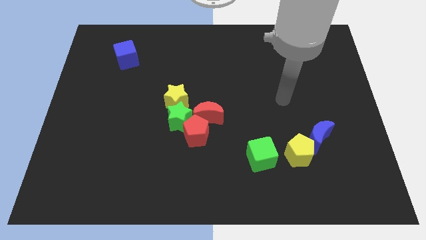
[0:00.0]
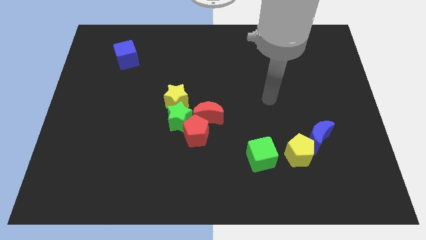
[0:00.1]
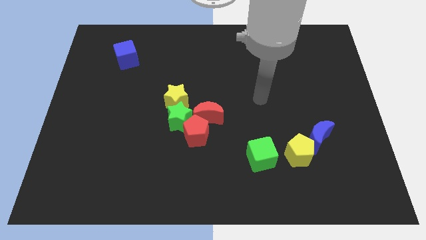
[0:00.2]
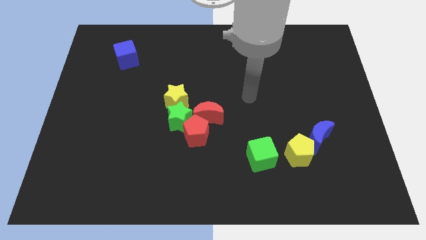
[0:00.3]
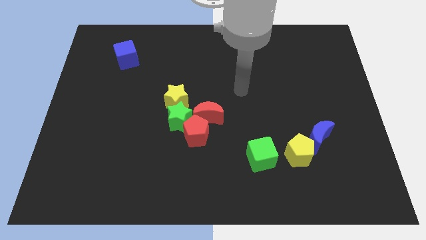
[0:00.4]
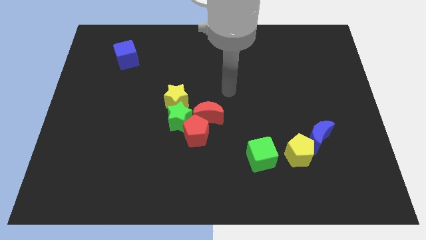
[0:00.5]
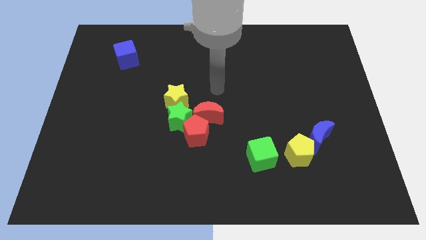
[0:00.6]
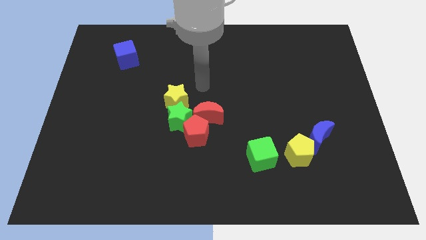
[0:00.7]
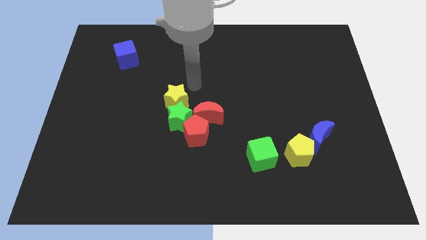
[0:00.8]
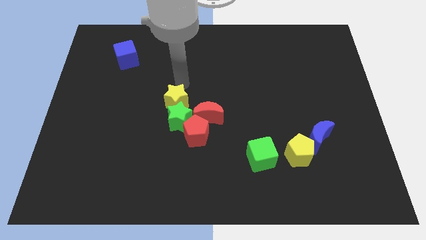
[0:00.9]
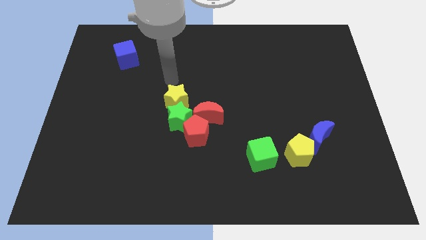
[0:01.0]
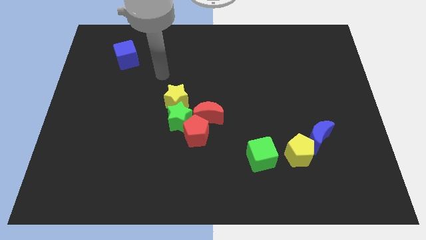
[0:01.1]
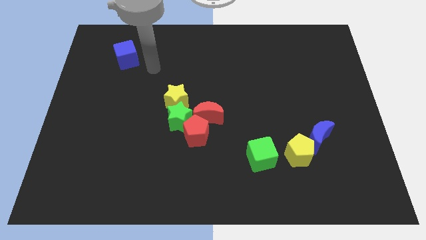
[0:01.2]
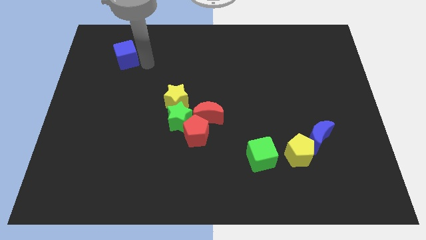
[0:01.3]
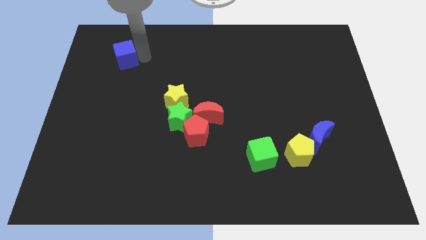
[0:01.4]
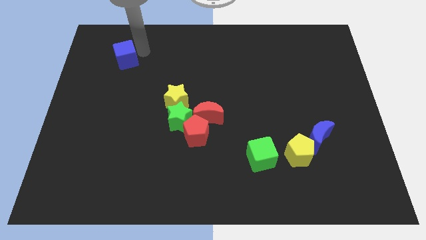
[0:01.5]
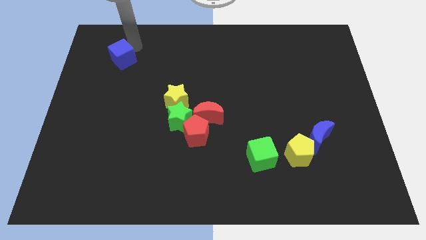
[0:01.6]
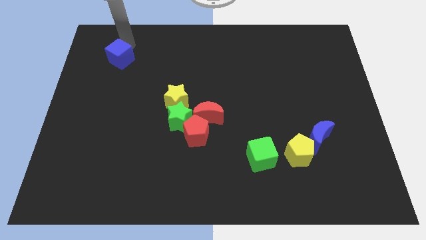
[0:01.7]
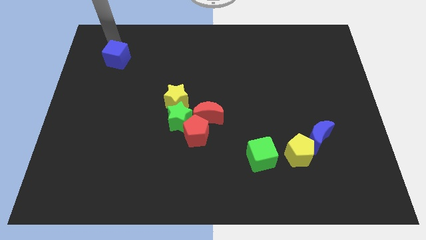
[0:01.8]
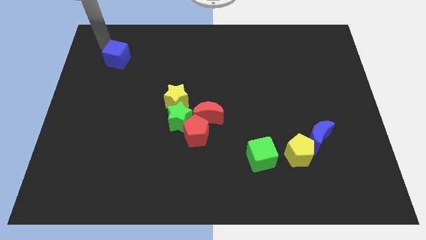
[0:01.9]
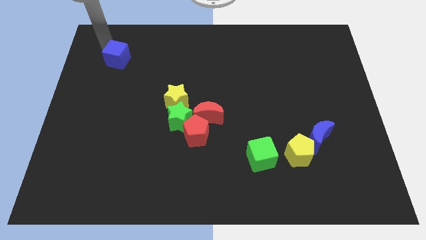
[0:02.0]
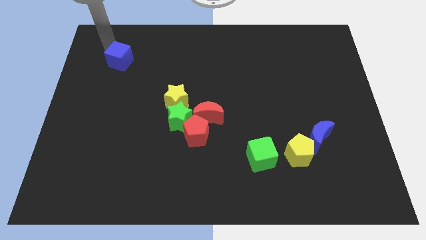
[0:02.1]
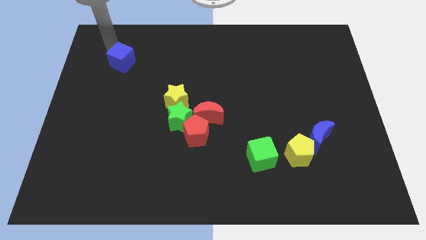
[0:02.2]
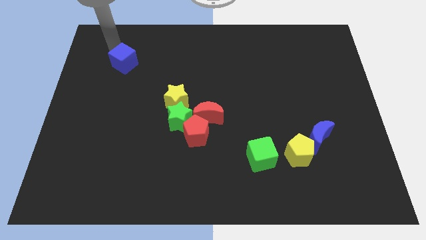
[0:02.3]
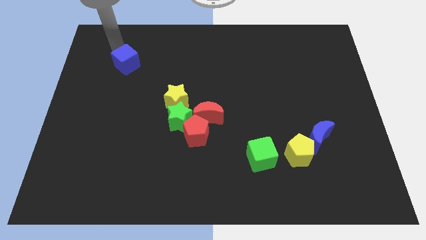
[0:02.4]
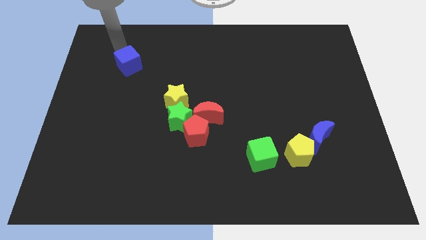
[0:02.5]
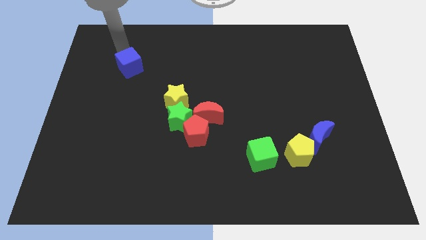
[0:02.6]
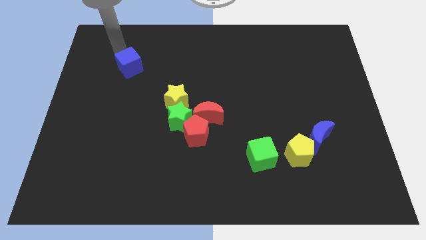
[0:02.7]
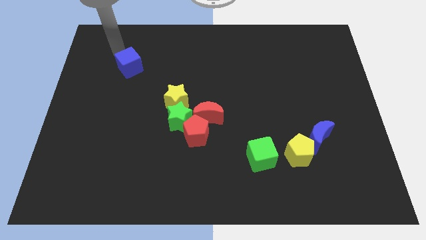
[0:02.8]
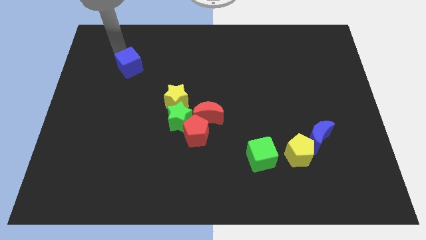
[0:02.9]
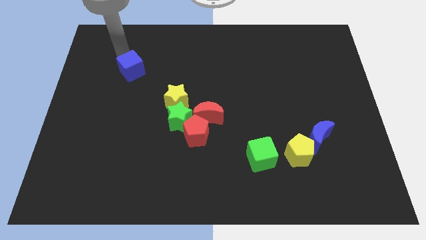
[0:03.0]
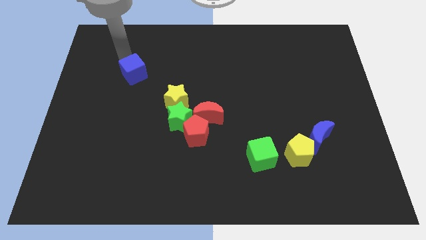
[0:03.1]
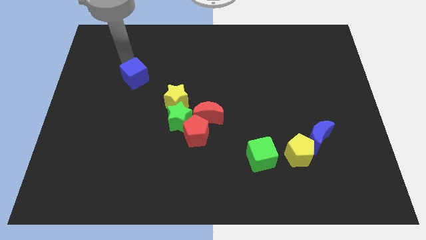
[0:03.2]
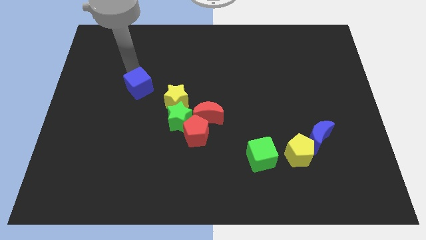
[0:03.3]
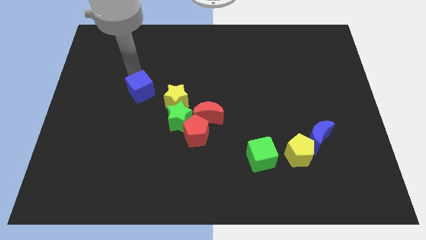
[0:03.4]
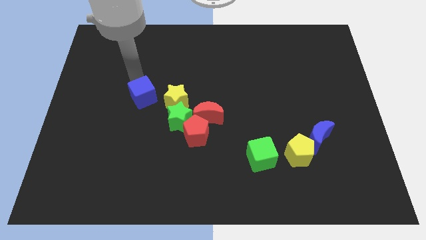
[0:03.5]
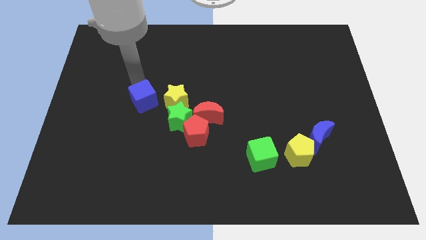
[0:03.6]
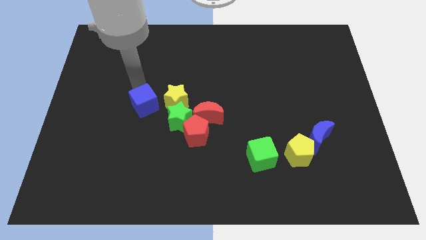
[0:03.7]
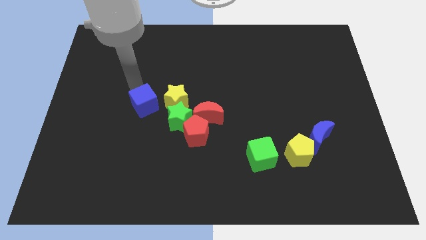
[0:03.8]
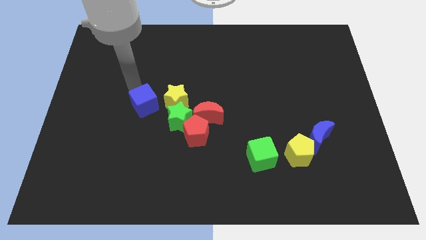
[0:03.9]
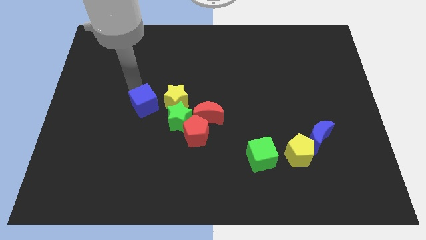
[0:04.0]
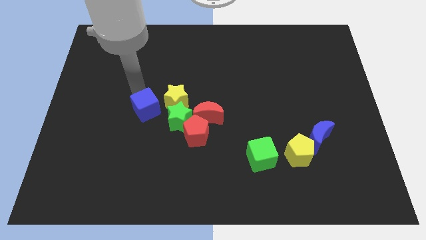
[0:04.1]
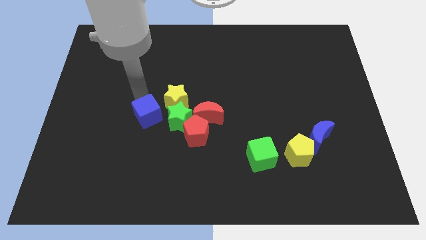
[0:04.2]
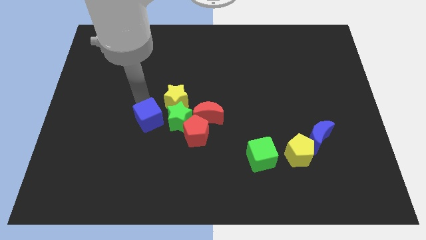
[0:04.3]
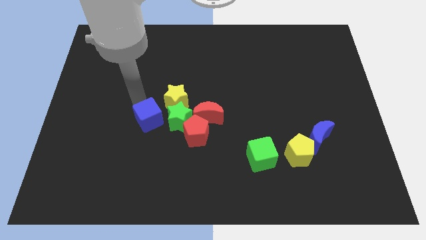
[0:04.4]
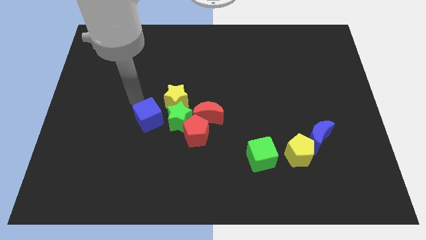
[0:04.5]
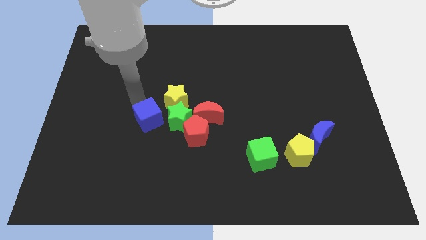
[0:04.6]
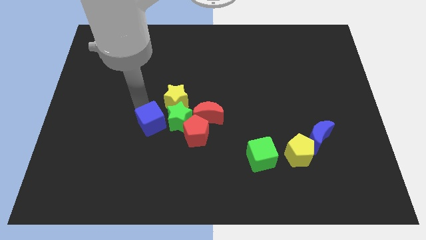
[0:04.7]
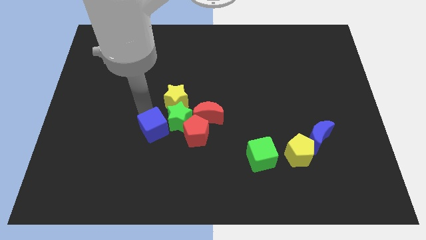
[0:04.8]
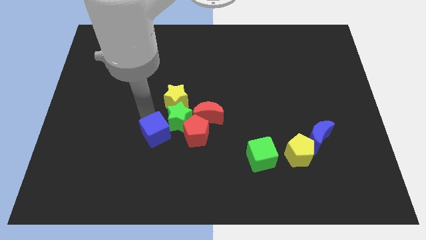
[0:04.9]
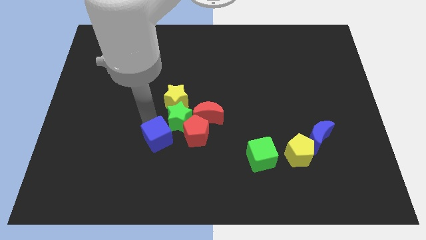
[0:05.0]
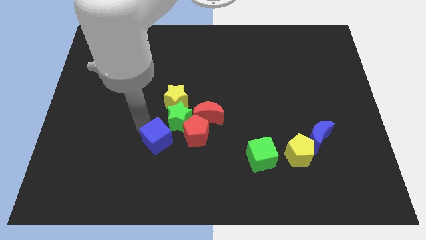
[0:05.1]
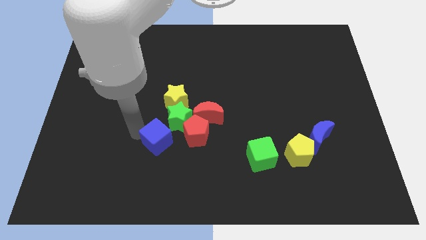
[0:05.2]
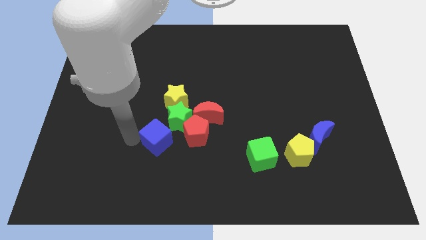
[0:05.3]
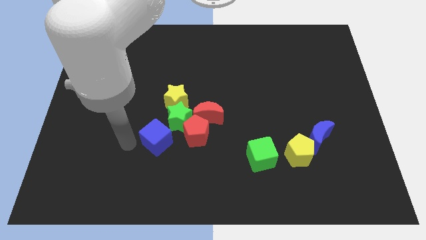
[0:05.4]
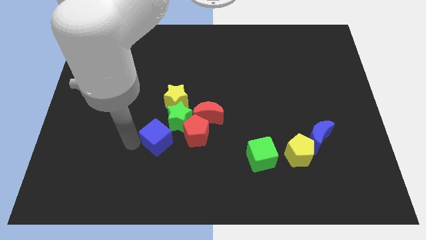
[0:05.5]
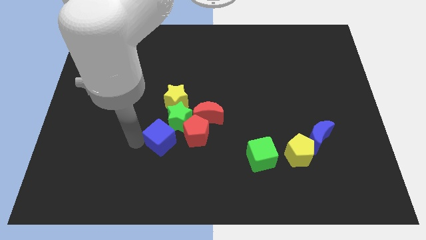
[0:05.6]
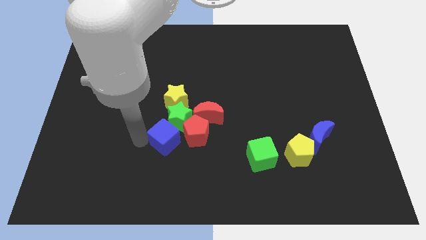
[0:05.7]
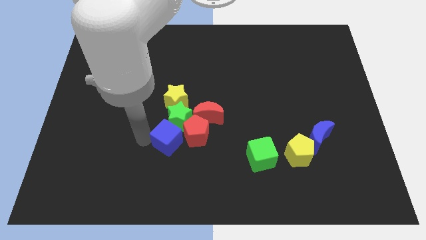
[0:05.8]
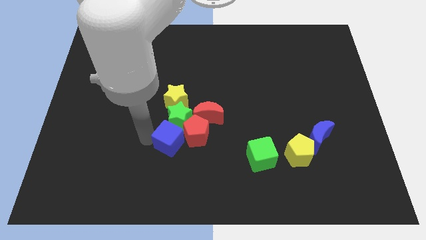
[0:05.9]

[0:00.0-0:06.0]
push the blue cube towards the red pentagon

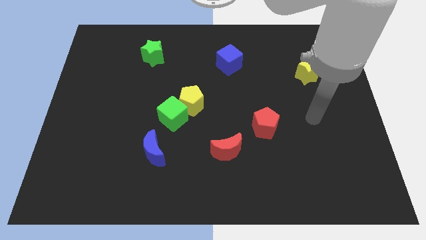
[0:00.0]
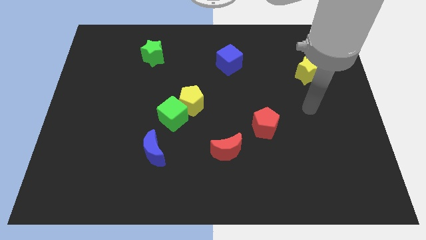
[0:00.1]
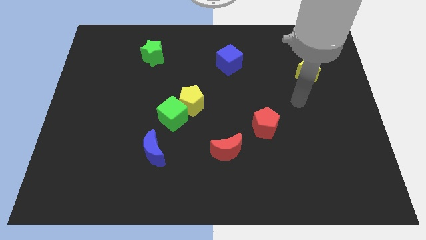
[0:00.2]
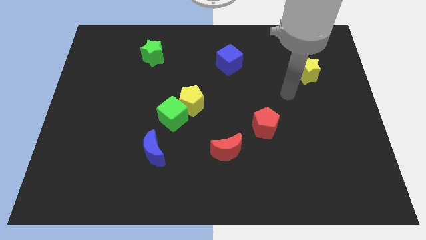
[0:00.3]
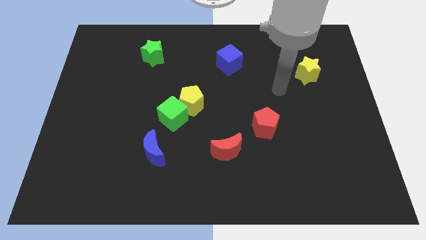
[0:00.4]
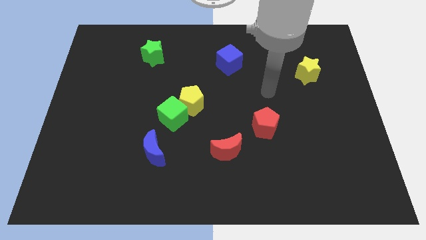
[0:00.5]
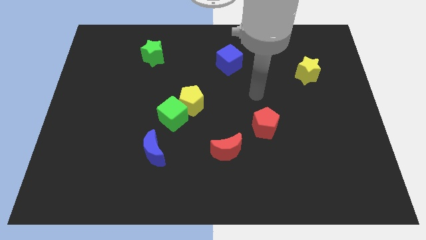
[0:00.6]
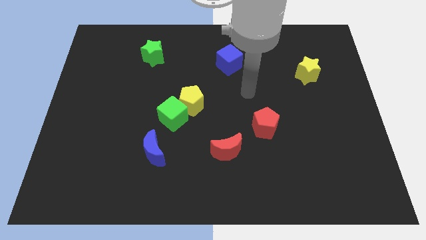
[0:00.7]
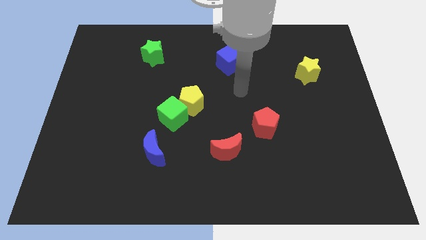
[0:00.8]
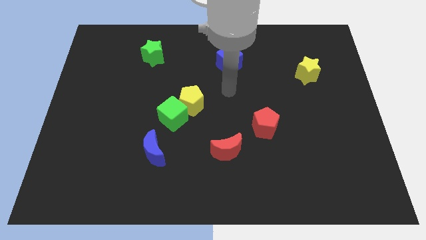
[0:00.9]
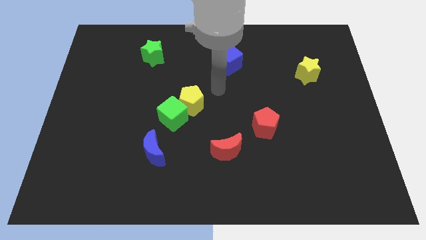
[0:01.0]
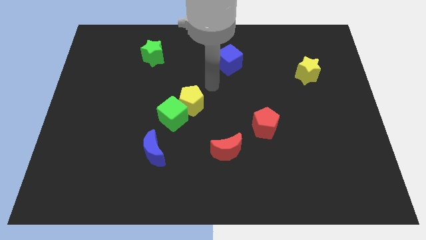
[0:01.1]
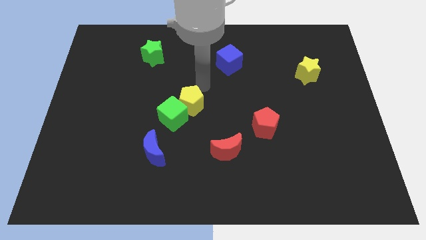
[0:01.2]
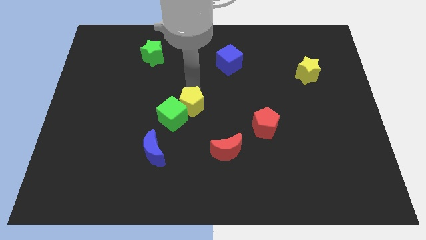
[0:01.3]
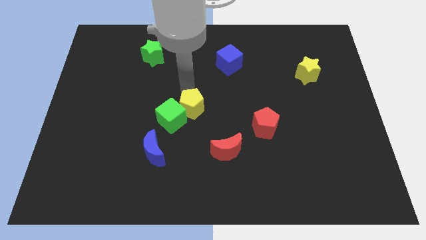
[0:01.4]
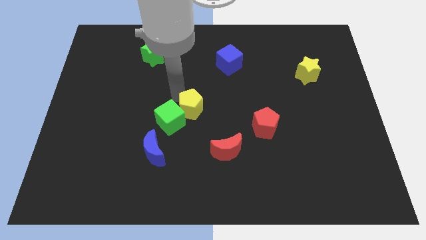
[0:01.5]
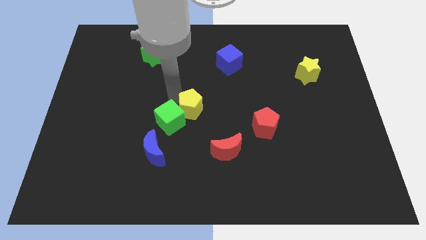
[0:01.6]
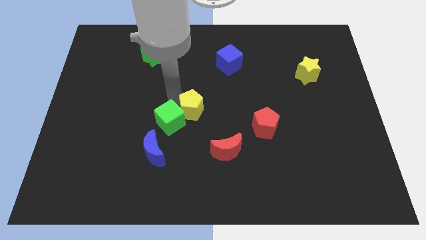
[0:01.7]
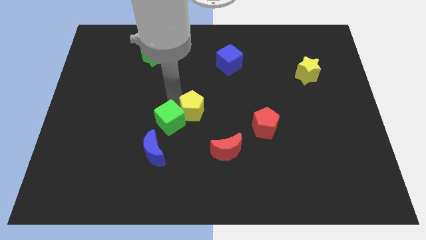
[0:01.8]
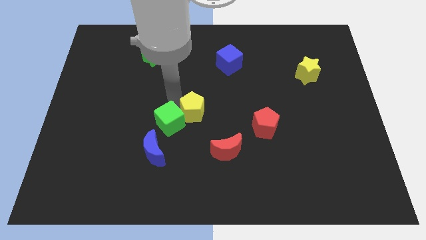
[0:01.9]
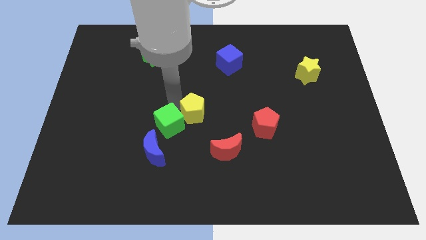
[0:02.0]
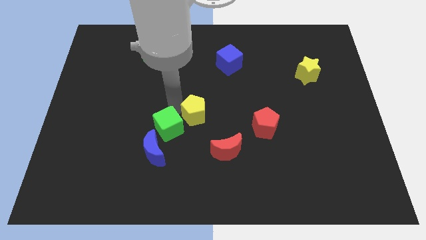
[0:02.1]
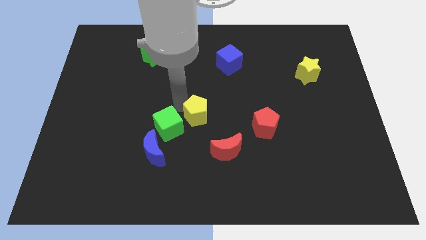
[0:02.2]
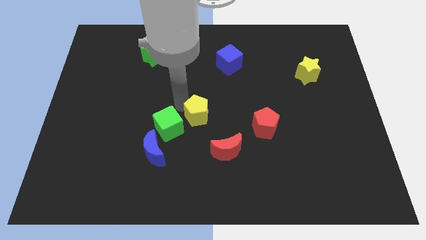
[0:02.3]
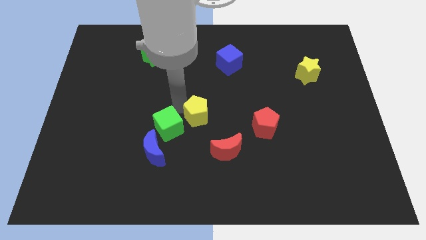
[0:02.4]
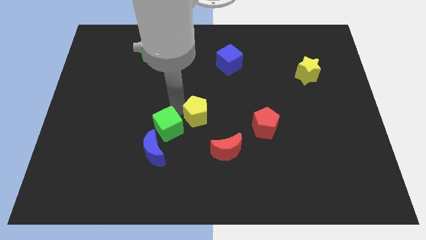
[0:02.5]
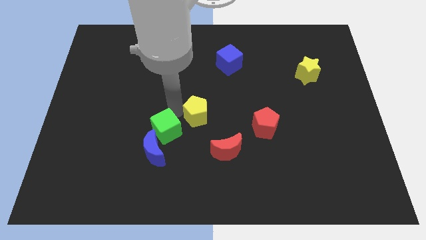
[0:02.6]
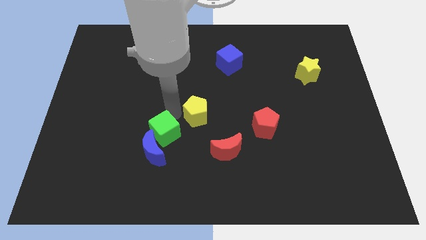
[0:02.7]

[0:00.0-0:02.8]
put the green cube next to the blue moon
